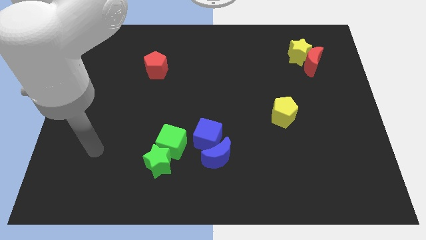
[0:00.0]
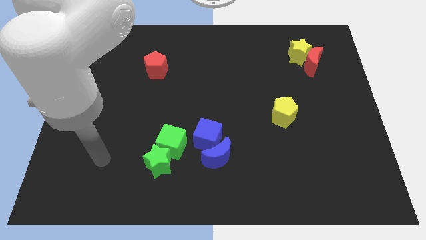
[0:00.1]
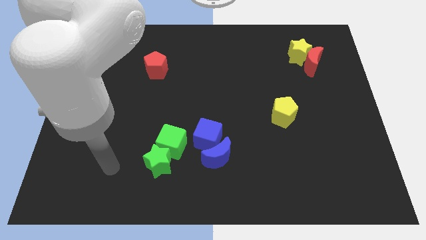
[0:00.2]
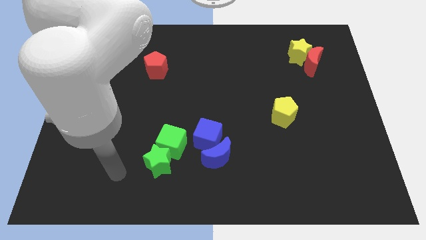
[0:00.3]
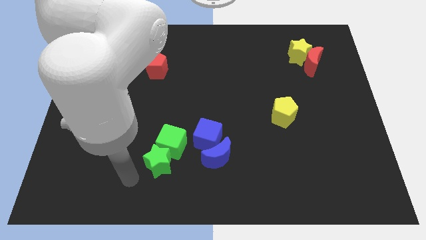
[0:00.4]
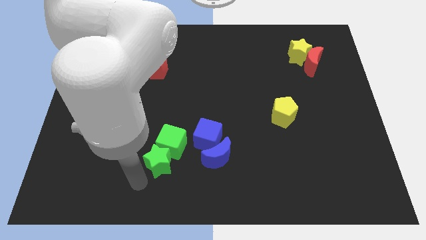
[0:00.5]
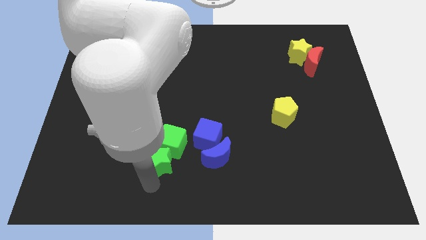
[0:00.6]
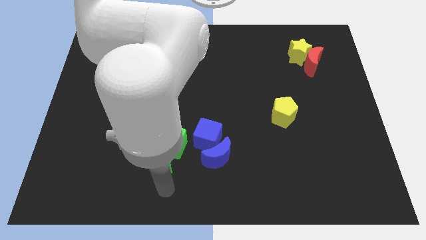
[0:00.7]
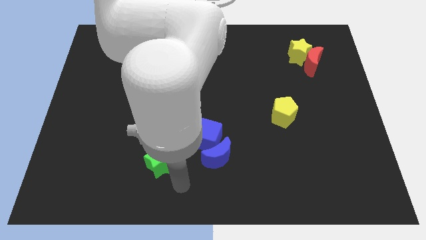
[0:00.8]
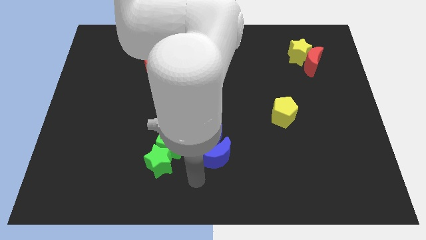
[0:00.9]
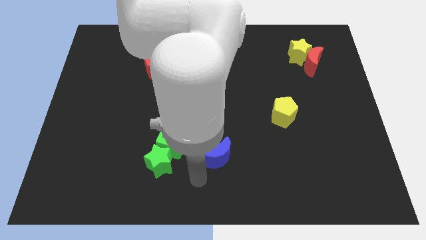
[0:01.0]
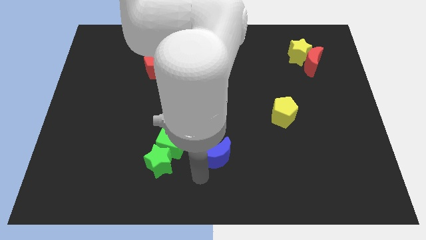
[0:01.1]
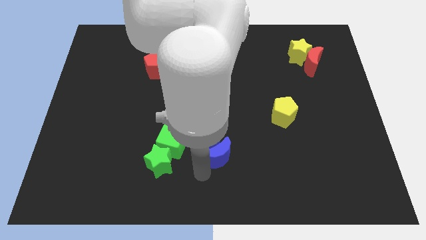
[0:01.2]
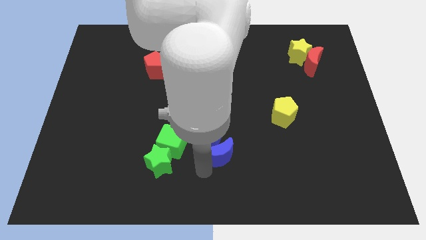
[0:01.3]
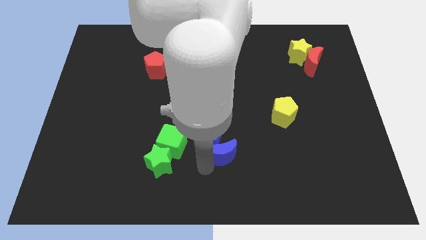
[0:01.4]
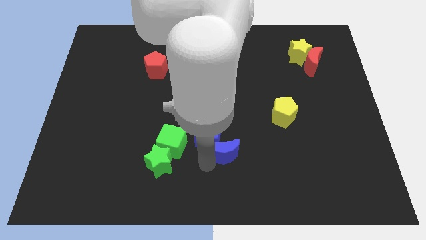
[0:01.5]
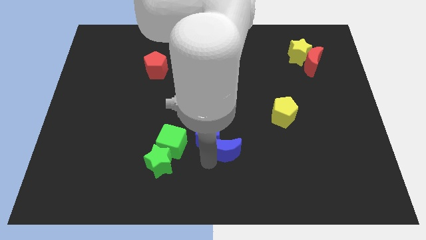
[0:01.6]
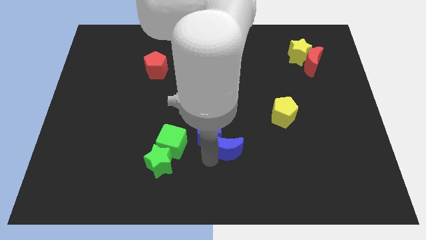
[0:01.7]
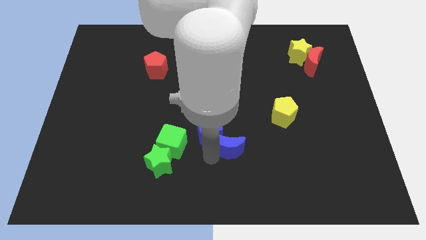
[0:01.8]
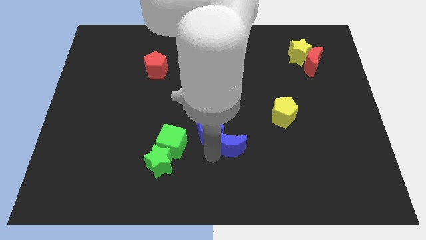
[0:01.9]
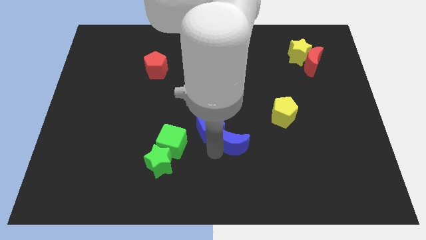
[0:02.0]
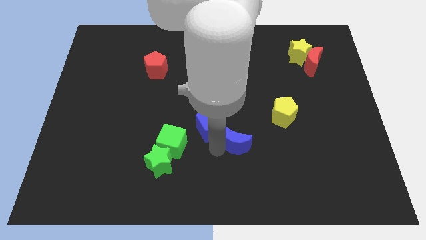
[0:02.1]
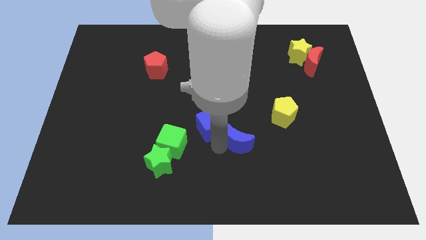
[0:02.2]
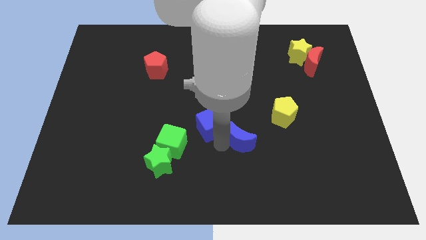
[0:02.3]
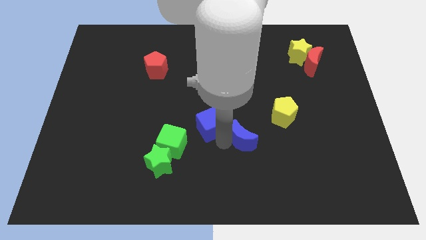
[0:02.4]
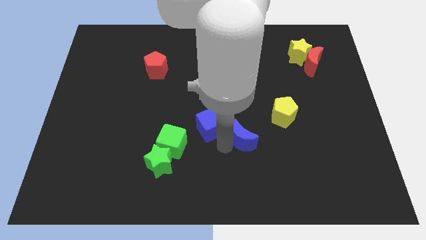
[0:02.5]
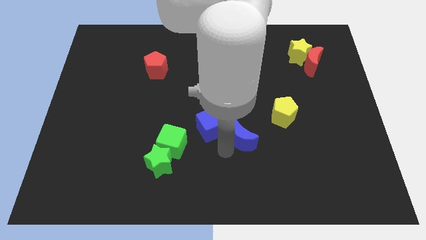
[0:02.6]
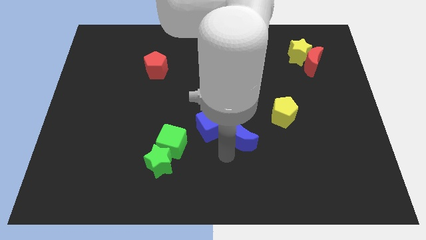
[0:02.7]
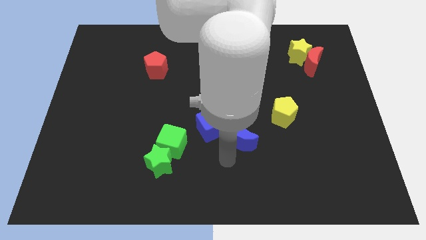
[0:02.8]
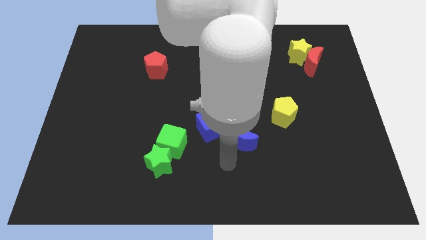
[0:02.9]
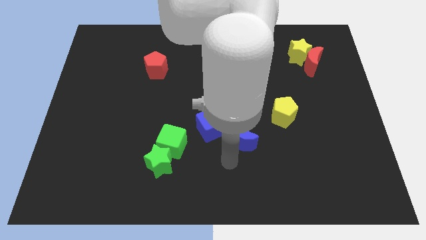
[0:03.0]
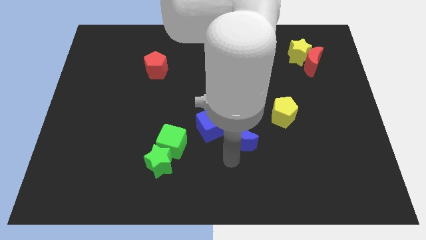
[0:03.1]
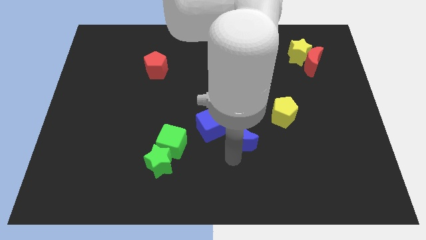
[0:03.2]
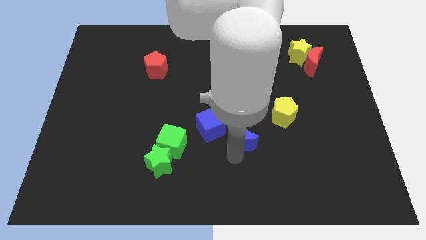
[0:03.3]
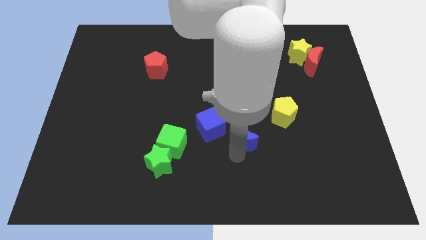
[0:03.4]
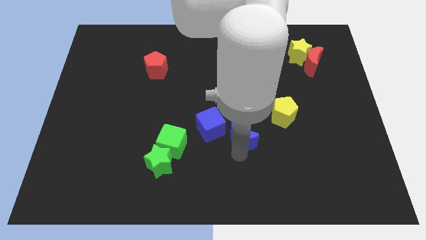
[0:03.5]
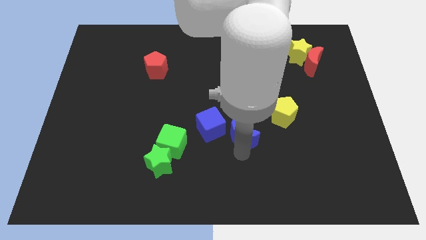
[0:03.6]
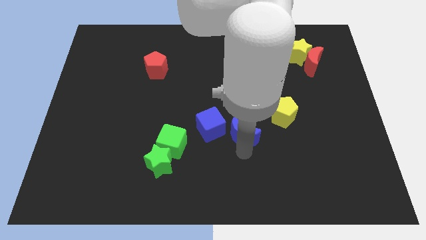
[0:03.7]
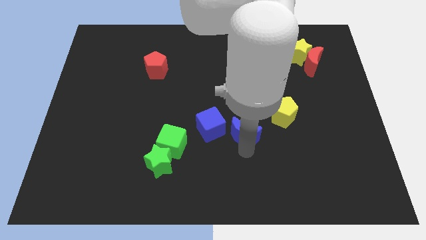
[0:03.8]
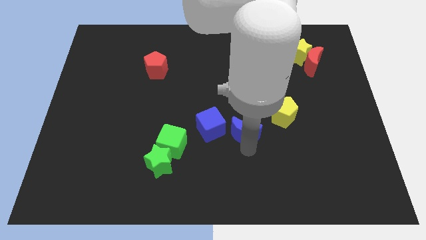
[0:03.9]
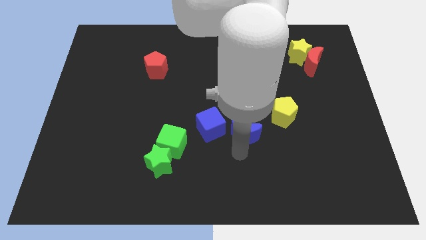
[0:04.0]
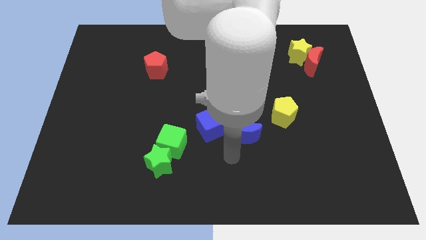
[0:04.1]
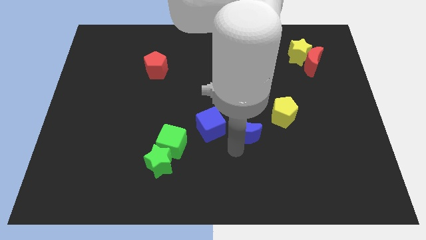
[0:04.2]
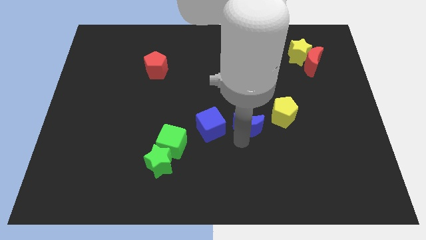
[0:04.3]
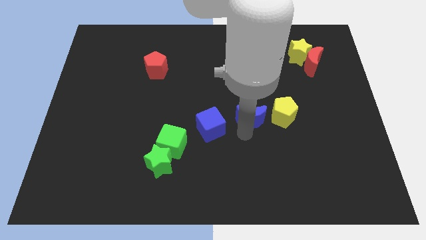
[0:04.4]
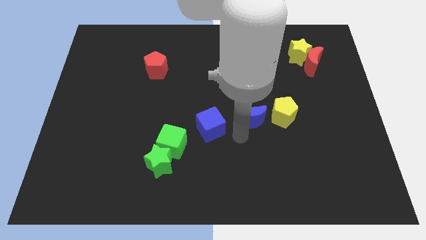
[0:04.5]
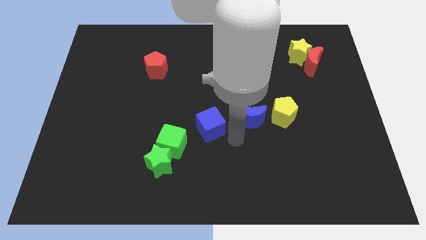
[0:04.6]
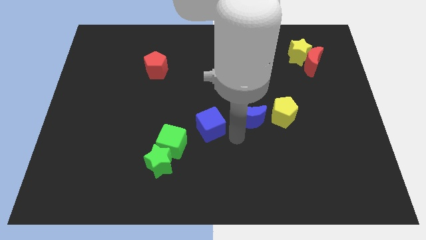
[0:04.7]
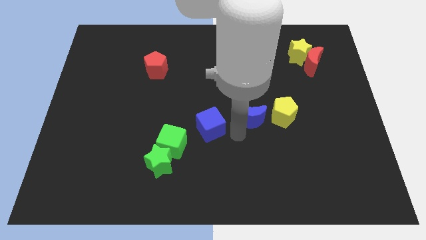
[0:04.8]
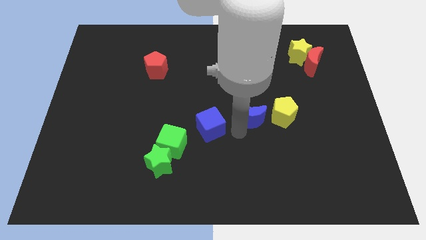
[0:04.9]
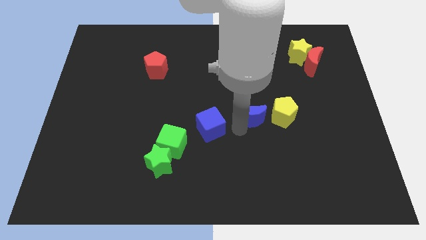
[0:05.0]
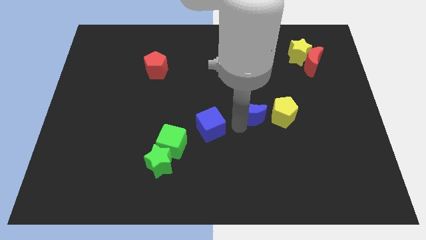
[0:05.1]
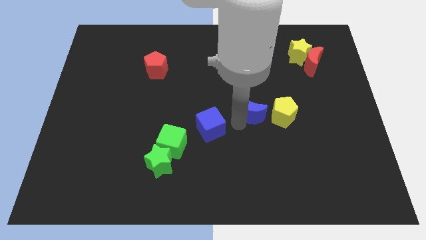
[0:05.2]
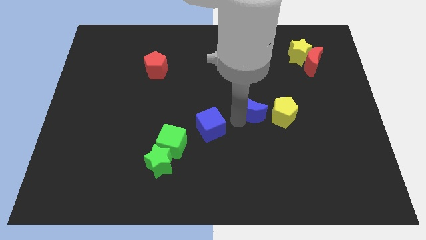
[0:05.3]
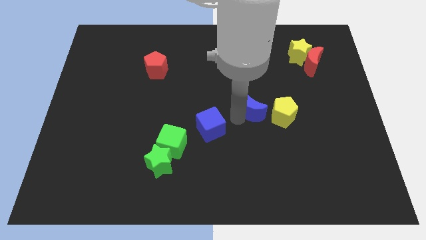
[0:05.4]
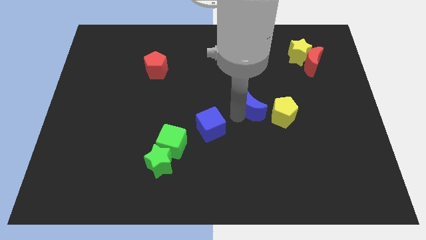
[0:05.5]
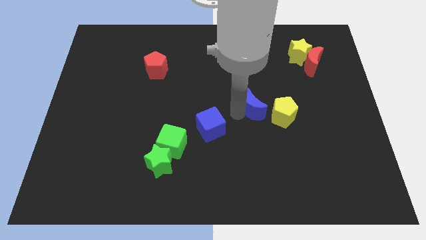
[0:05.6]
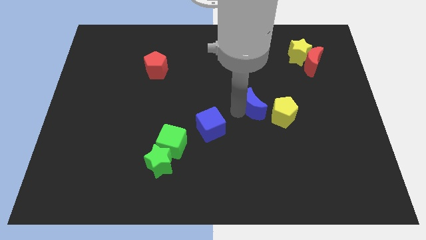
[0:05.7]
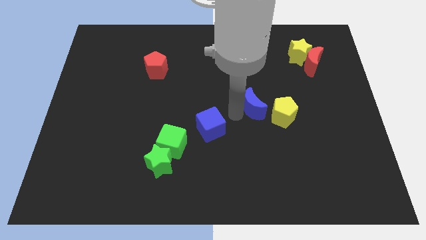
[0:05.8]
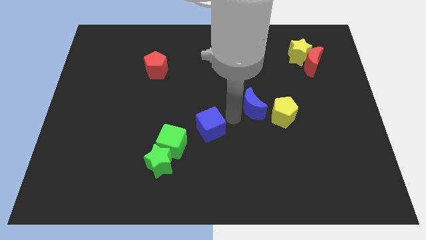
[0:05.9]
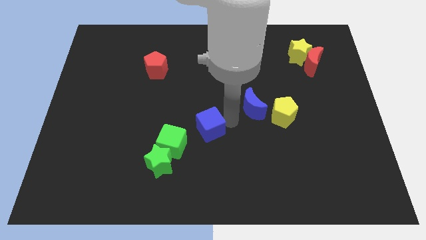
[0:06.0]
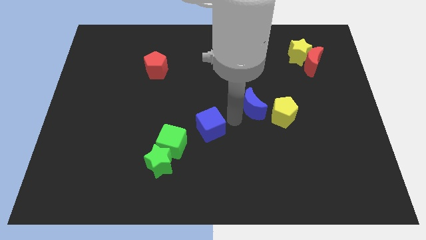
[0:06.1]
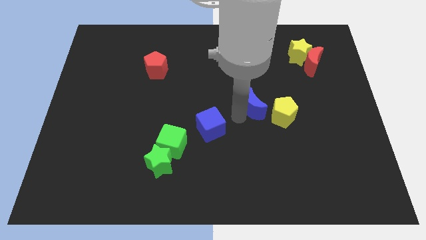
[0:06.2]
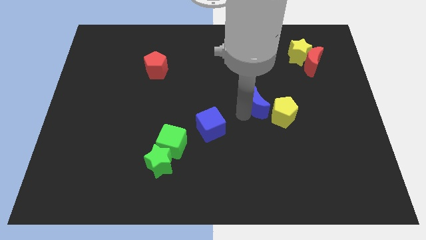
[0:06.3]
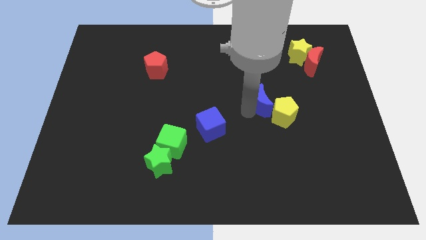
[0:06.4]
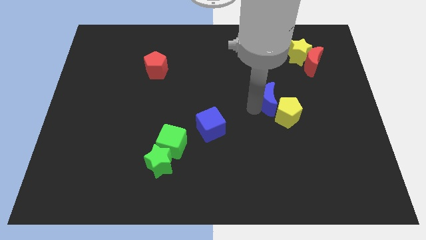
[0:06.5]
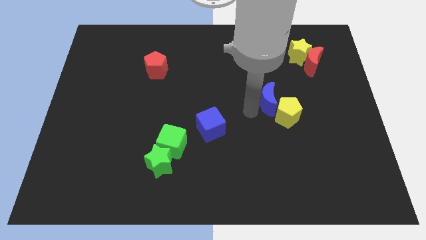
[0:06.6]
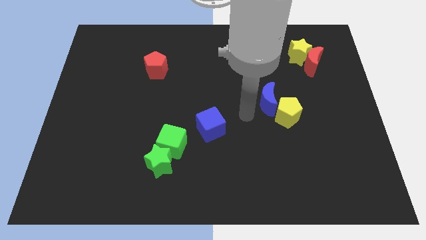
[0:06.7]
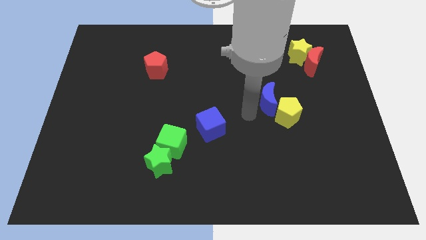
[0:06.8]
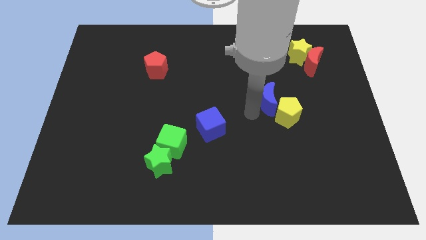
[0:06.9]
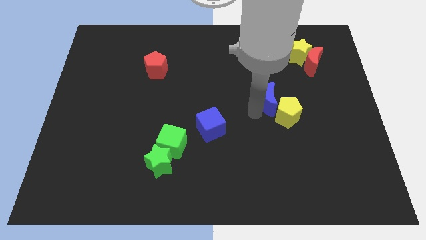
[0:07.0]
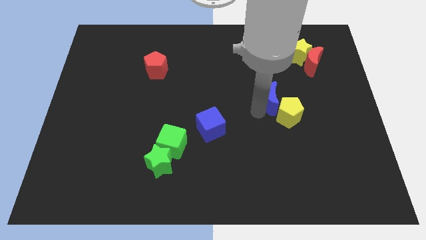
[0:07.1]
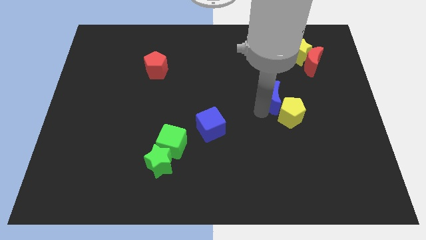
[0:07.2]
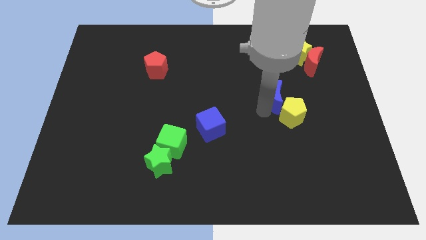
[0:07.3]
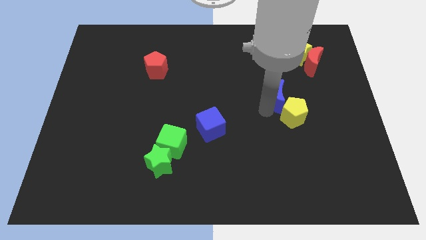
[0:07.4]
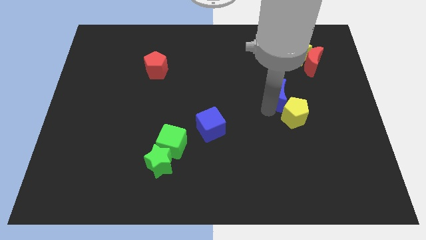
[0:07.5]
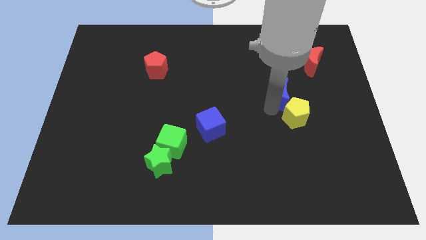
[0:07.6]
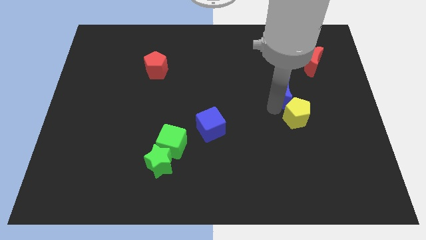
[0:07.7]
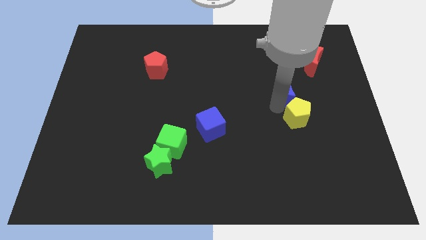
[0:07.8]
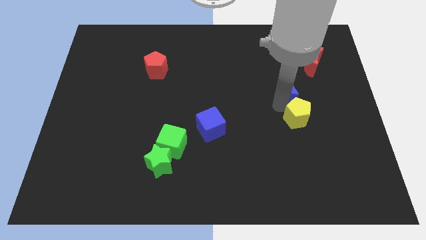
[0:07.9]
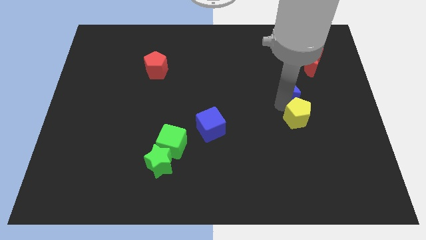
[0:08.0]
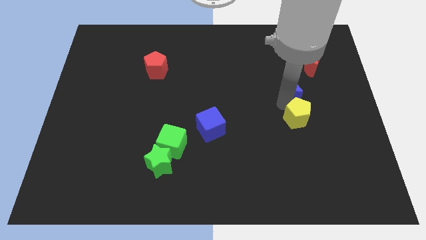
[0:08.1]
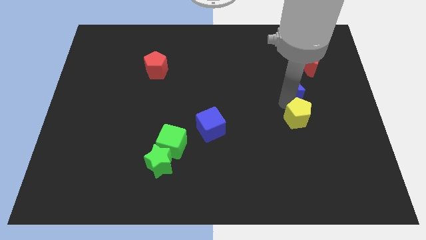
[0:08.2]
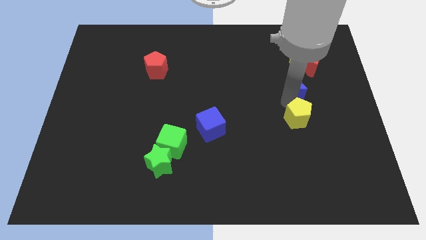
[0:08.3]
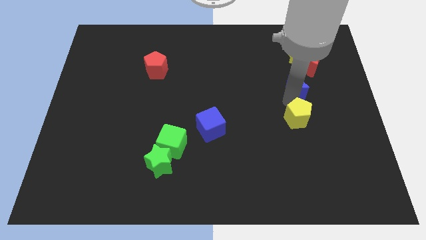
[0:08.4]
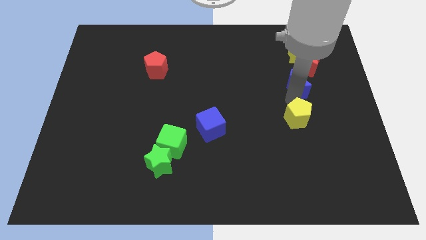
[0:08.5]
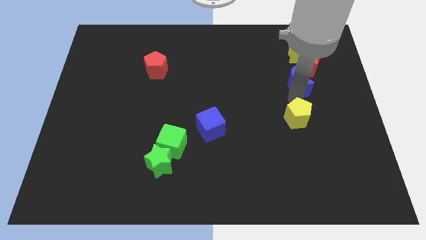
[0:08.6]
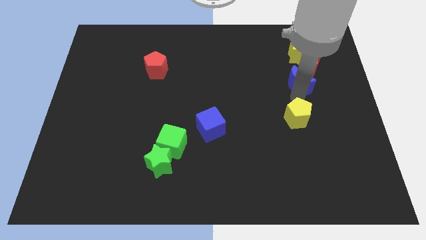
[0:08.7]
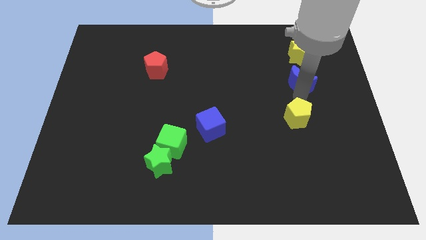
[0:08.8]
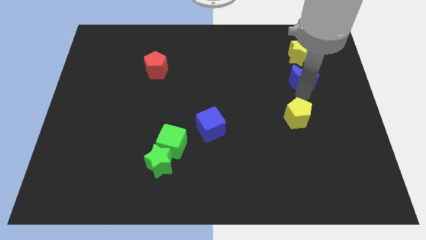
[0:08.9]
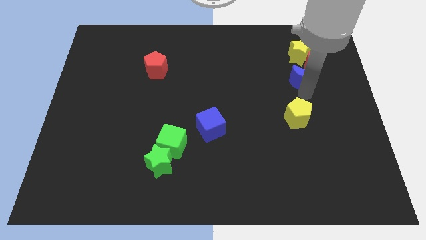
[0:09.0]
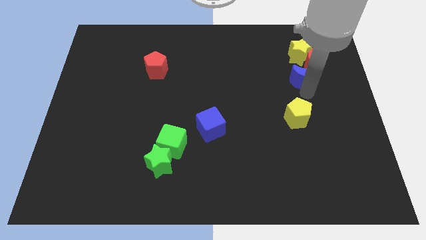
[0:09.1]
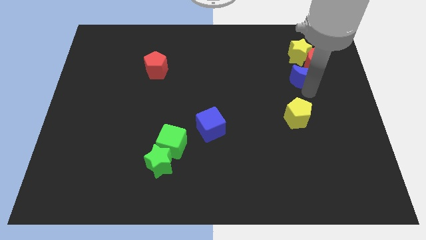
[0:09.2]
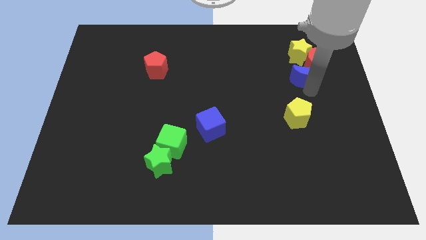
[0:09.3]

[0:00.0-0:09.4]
slide the blue moon towards the red moon
